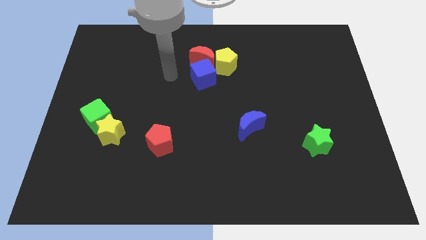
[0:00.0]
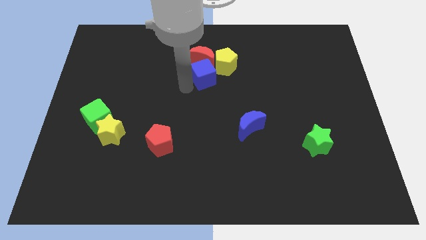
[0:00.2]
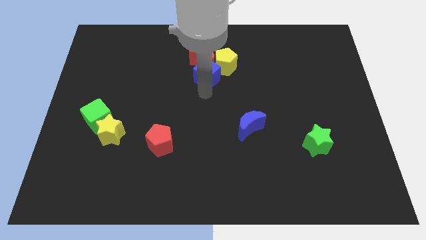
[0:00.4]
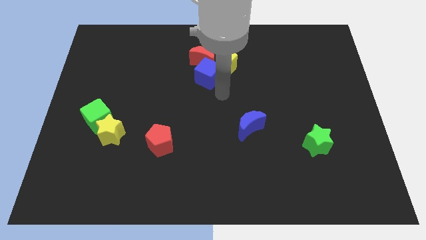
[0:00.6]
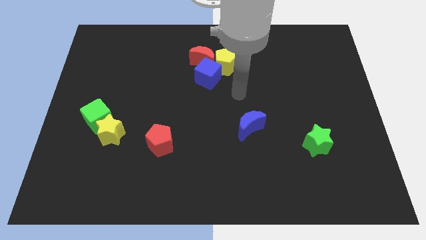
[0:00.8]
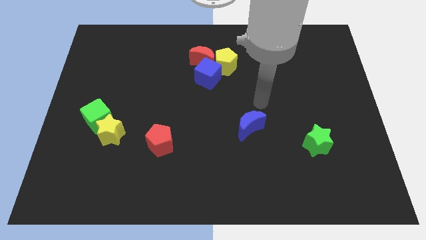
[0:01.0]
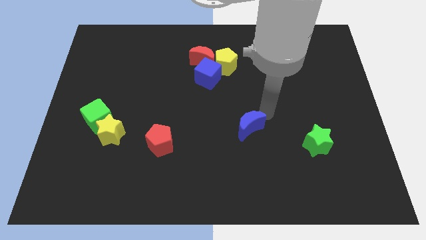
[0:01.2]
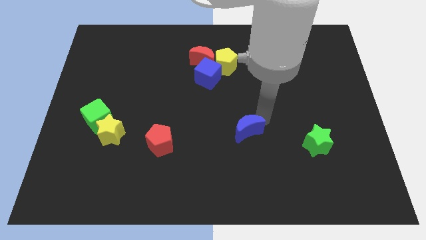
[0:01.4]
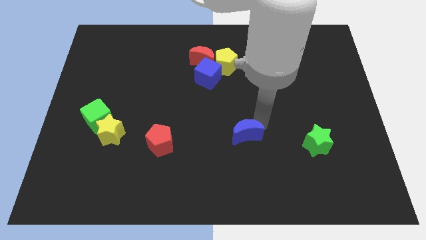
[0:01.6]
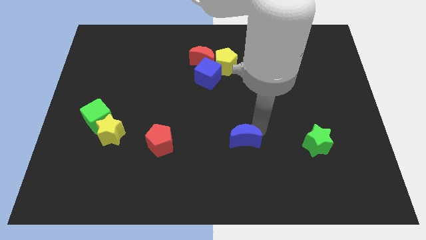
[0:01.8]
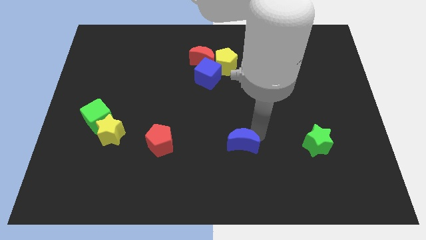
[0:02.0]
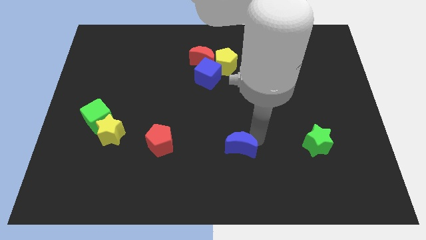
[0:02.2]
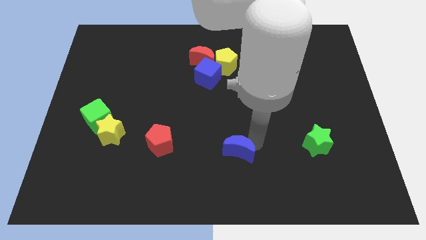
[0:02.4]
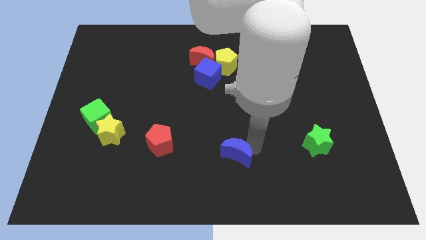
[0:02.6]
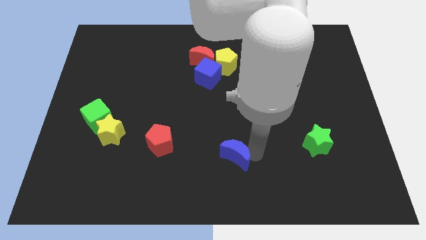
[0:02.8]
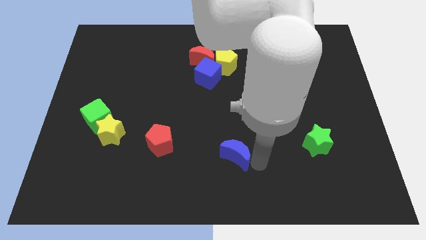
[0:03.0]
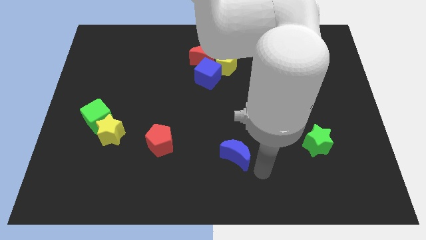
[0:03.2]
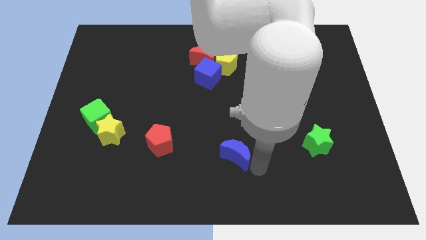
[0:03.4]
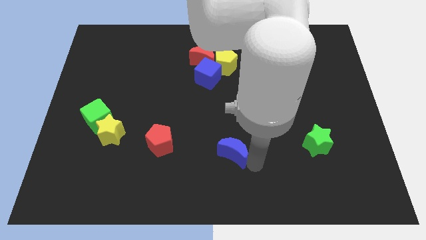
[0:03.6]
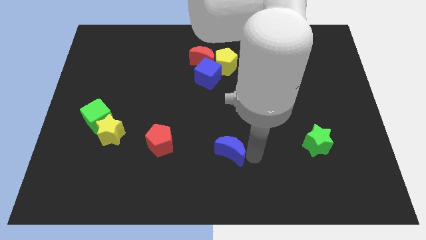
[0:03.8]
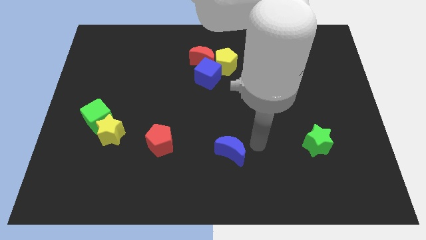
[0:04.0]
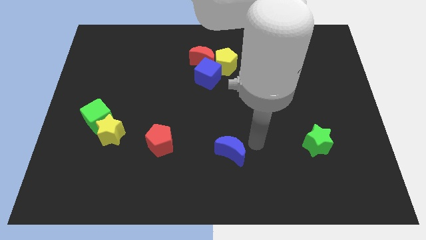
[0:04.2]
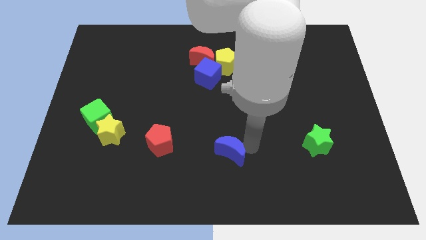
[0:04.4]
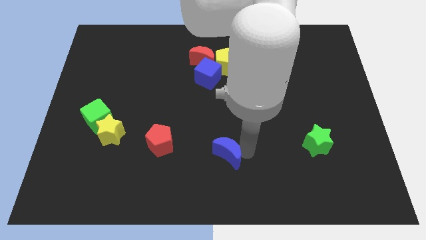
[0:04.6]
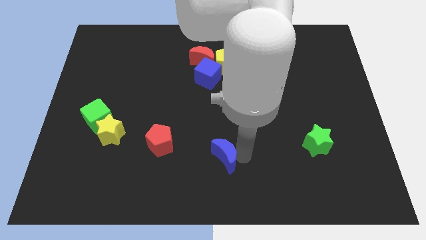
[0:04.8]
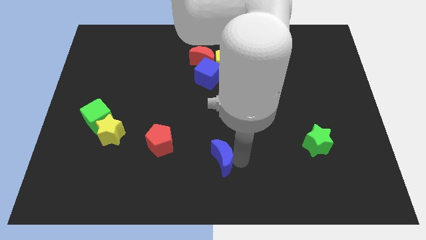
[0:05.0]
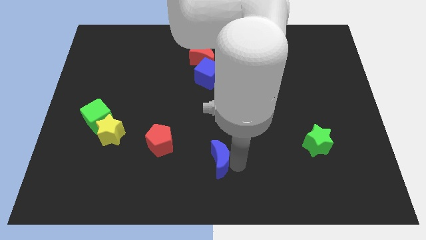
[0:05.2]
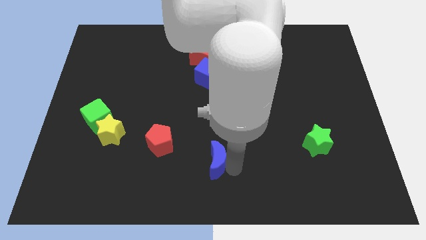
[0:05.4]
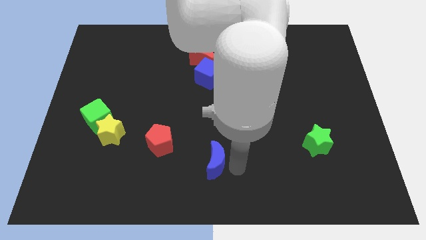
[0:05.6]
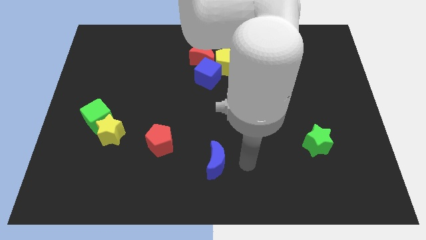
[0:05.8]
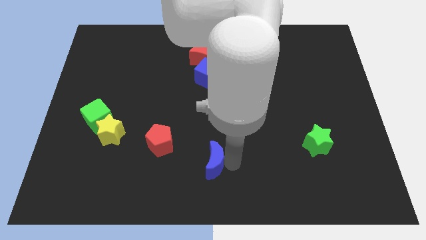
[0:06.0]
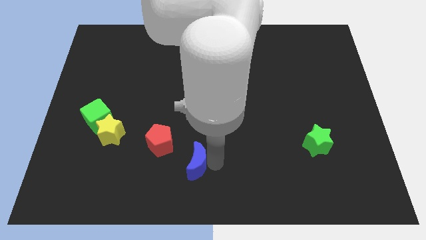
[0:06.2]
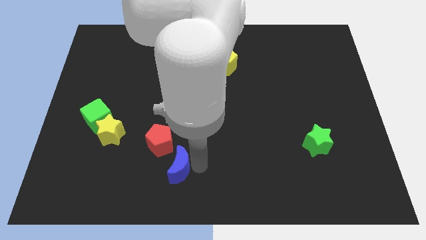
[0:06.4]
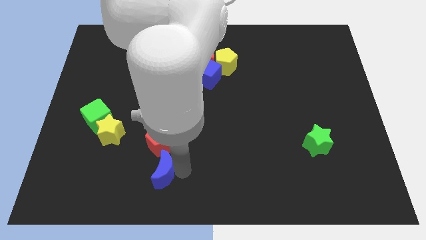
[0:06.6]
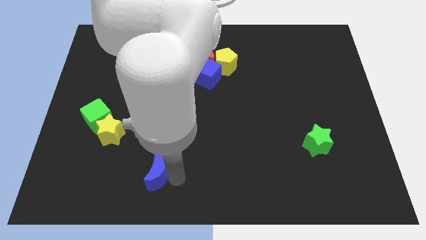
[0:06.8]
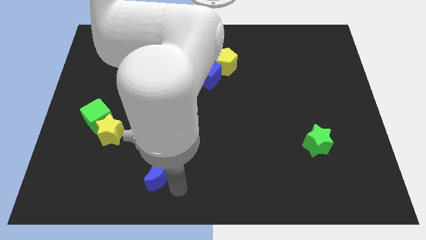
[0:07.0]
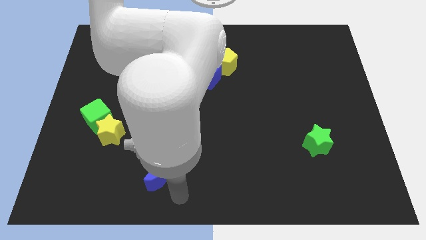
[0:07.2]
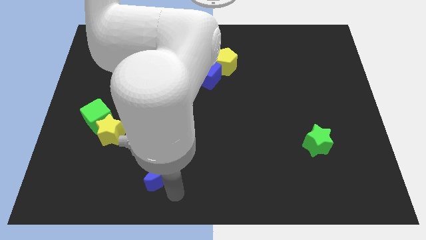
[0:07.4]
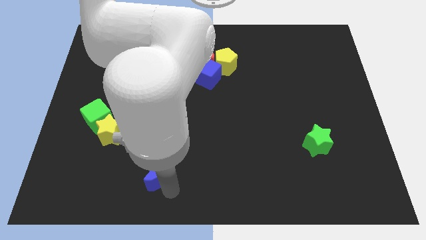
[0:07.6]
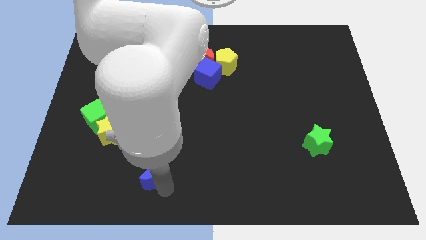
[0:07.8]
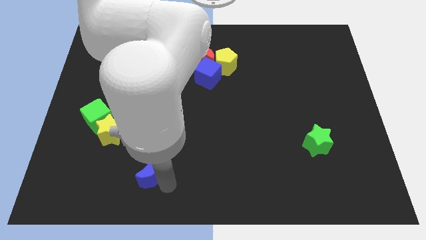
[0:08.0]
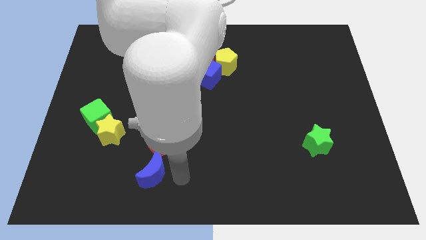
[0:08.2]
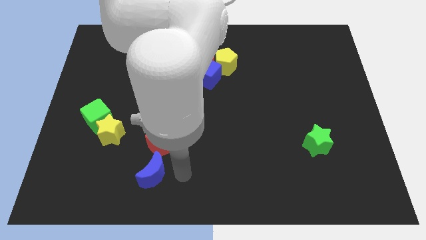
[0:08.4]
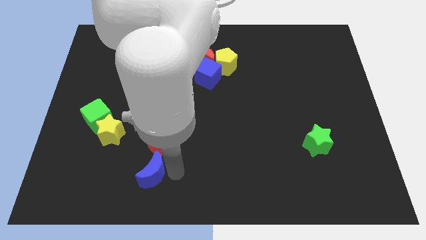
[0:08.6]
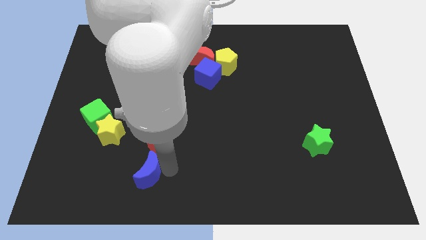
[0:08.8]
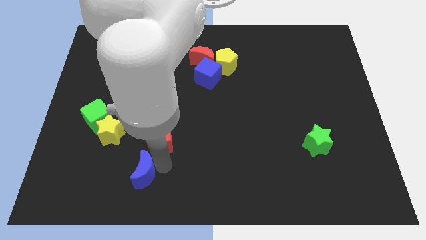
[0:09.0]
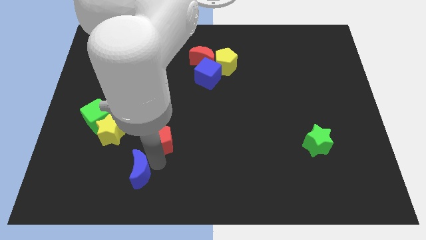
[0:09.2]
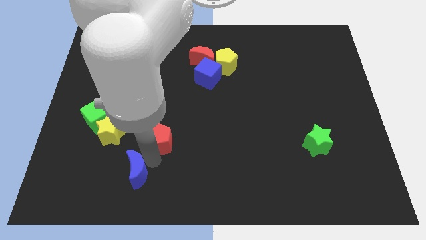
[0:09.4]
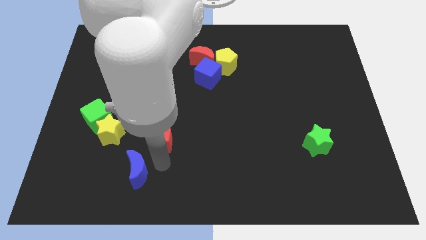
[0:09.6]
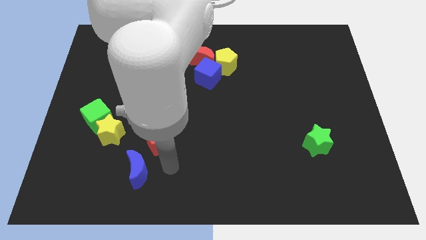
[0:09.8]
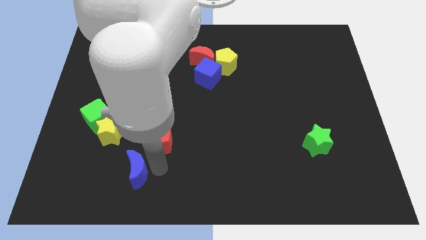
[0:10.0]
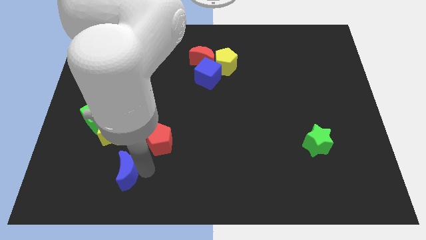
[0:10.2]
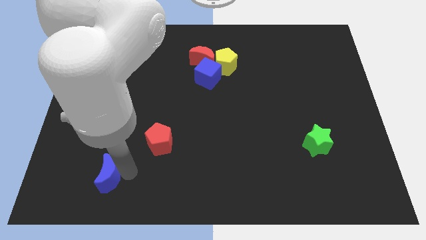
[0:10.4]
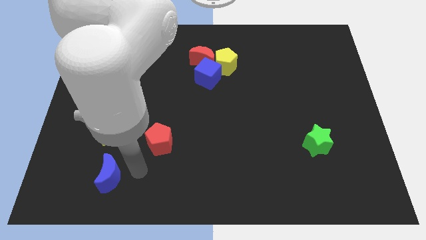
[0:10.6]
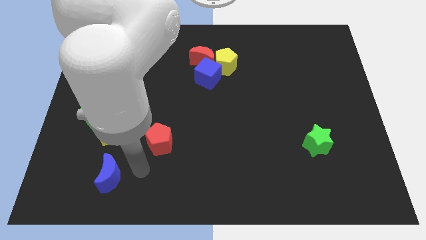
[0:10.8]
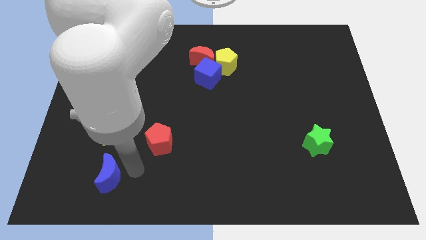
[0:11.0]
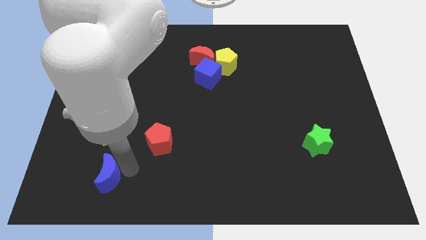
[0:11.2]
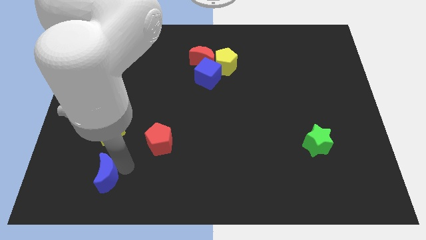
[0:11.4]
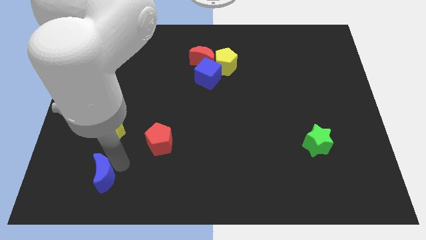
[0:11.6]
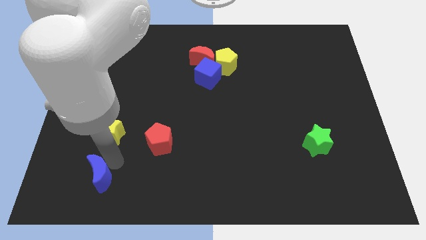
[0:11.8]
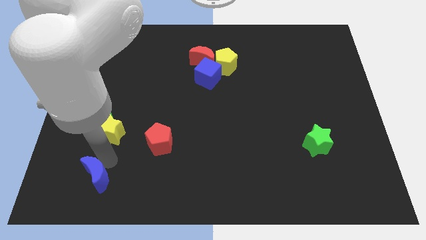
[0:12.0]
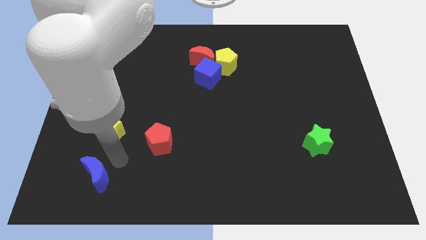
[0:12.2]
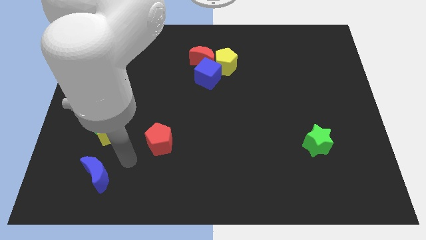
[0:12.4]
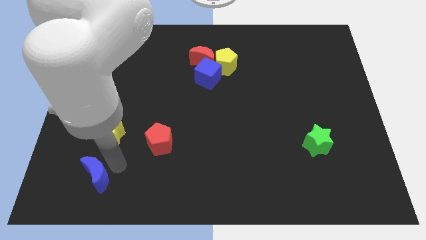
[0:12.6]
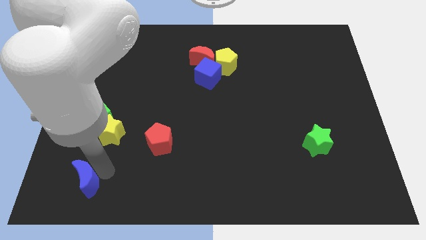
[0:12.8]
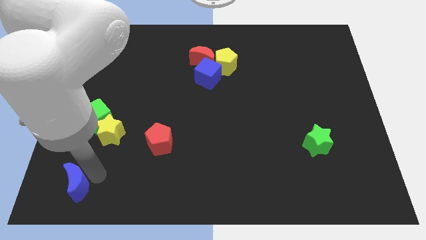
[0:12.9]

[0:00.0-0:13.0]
put the blue moon to the bottom left

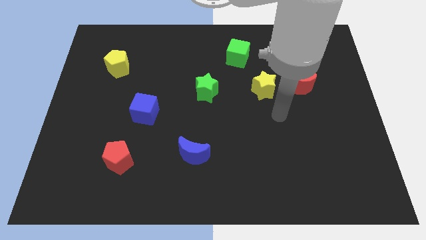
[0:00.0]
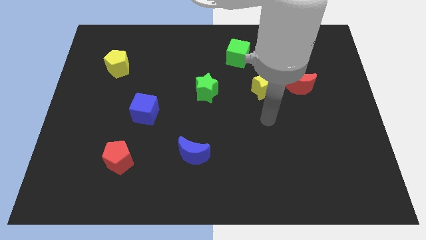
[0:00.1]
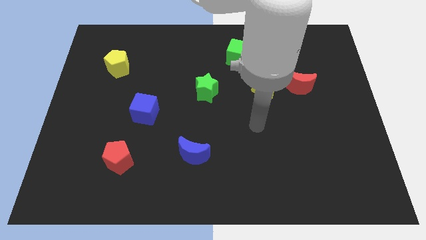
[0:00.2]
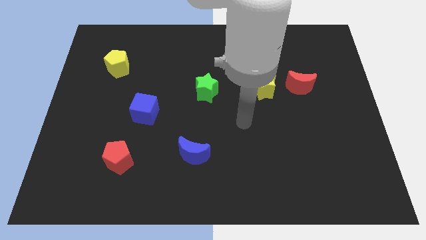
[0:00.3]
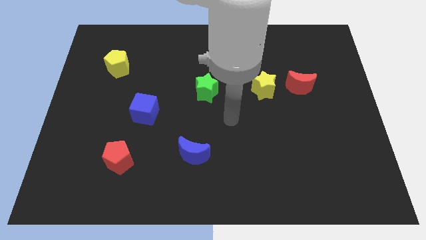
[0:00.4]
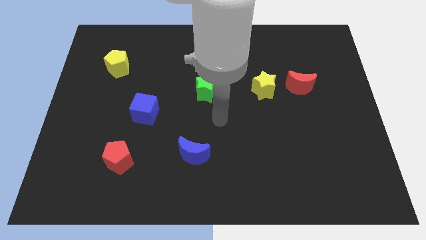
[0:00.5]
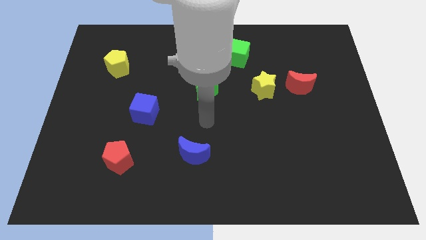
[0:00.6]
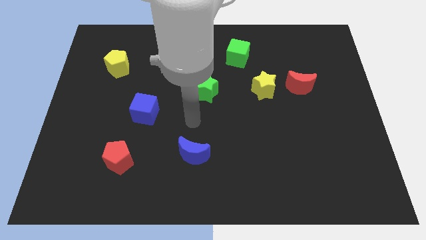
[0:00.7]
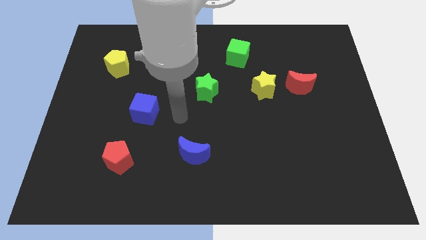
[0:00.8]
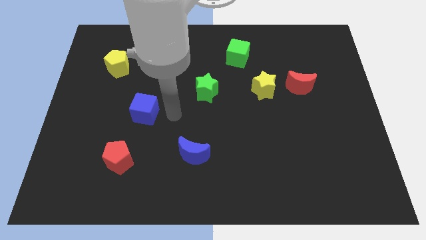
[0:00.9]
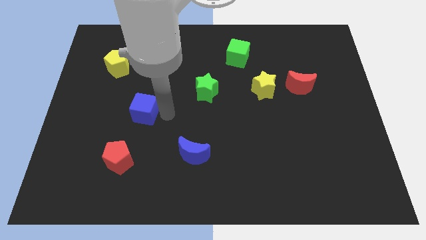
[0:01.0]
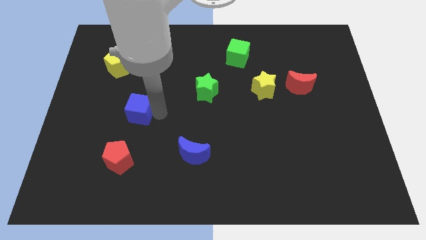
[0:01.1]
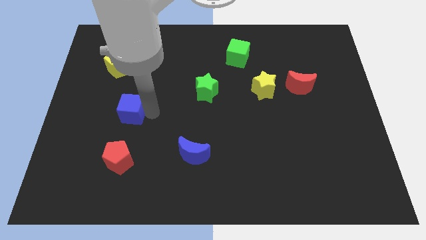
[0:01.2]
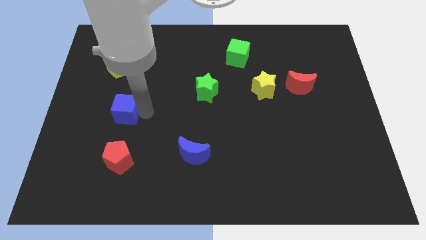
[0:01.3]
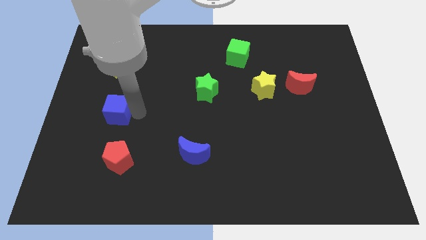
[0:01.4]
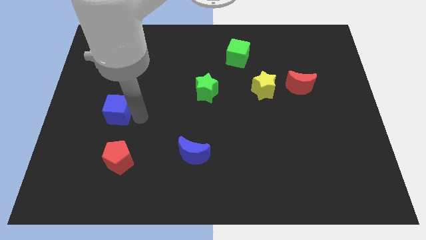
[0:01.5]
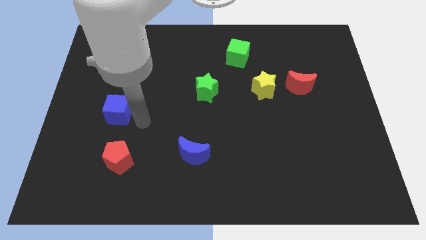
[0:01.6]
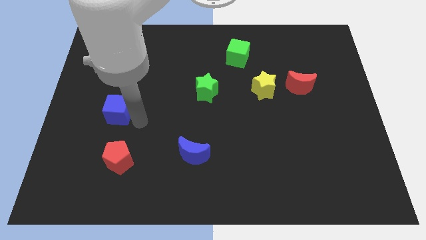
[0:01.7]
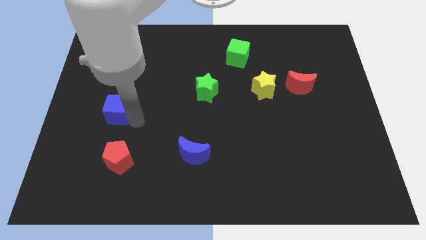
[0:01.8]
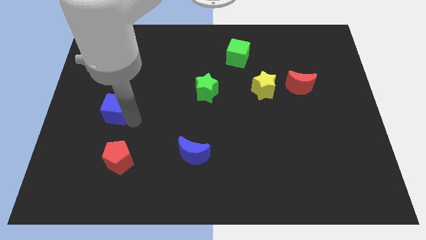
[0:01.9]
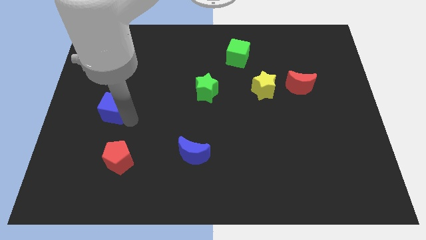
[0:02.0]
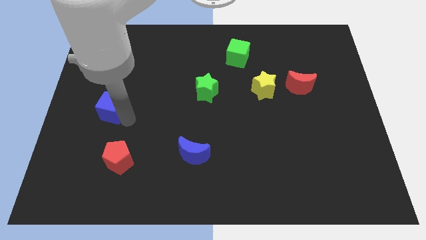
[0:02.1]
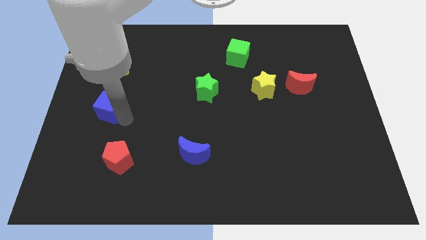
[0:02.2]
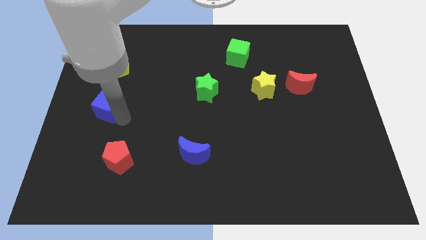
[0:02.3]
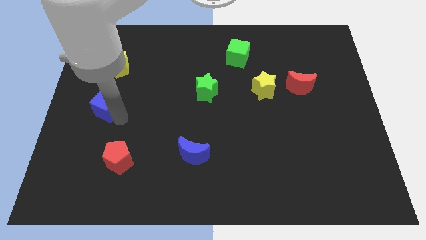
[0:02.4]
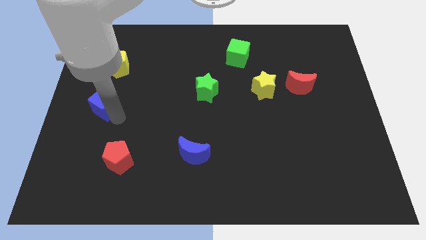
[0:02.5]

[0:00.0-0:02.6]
push the blue cube to the left side
